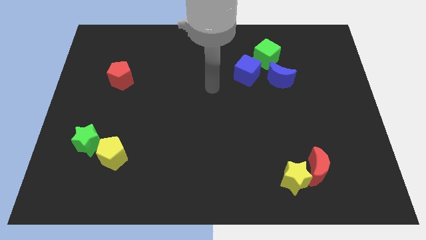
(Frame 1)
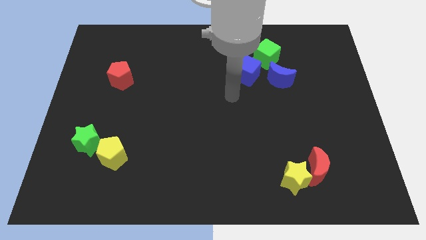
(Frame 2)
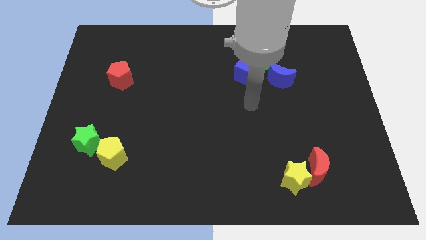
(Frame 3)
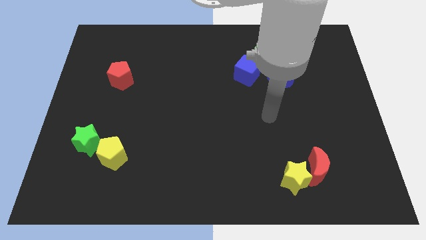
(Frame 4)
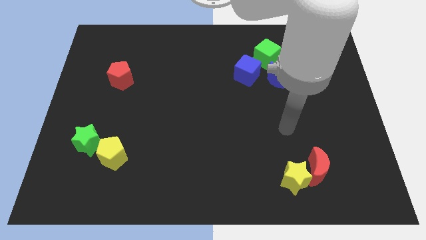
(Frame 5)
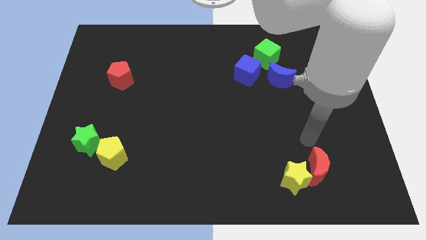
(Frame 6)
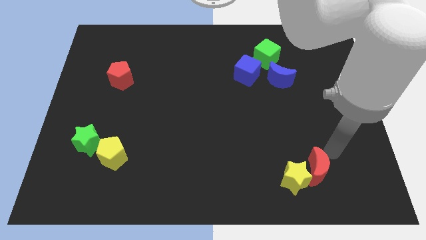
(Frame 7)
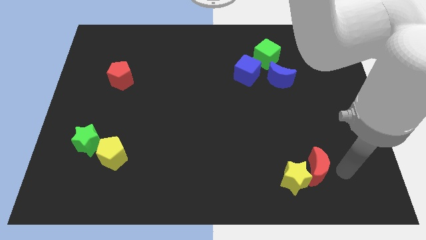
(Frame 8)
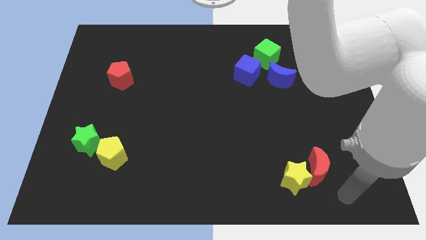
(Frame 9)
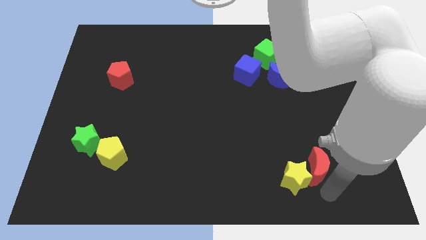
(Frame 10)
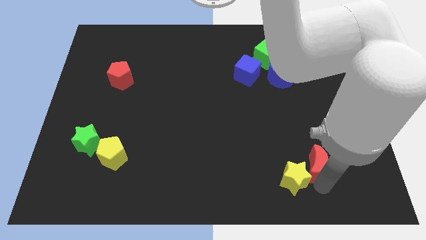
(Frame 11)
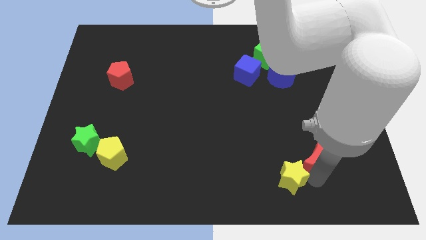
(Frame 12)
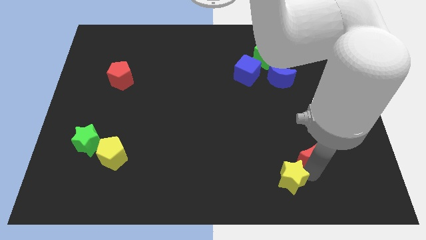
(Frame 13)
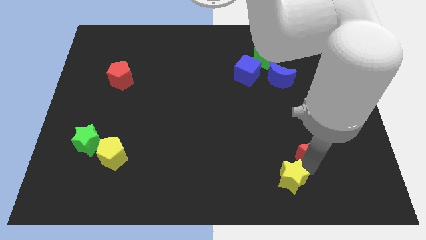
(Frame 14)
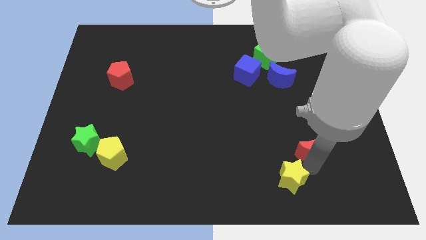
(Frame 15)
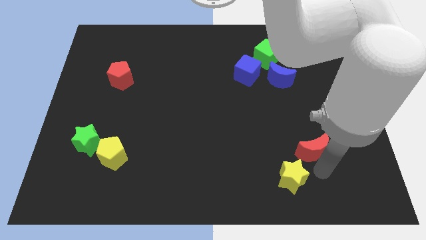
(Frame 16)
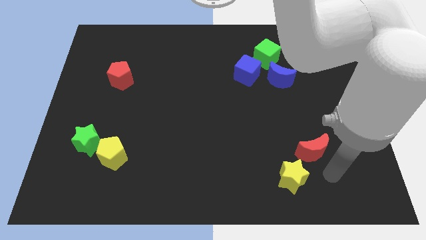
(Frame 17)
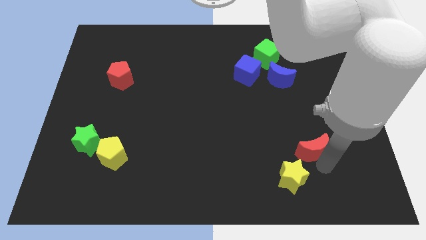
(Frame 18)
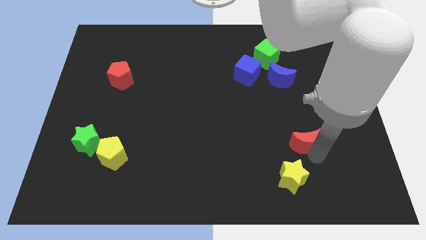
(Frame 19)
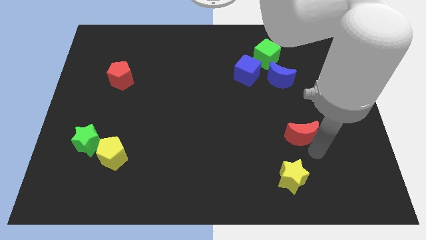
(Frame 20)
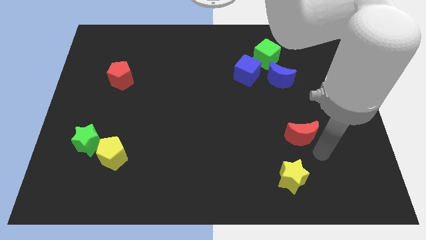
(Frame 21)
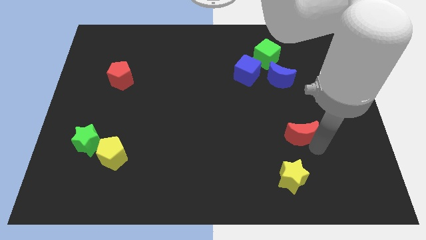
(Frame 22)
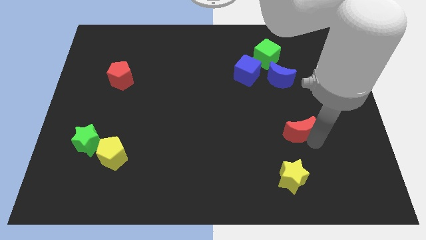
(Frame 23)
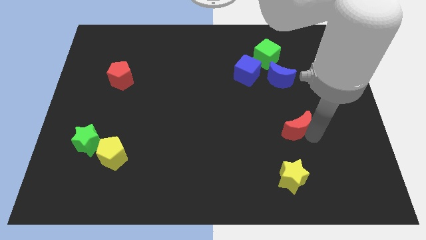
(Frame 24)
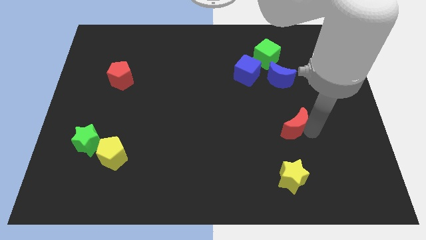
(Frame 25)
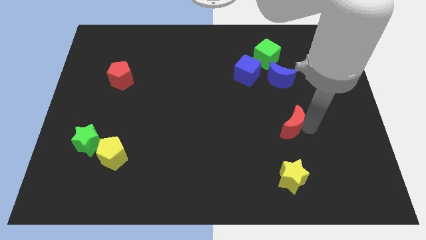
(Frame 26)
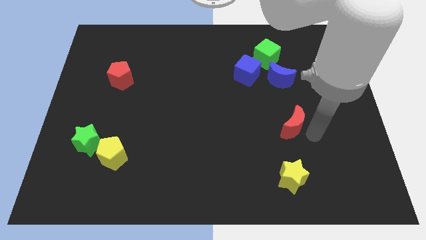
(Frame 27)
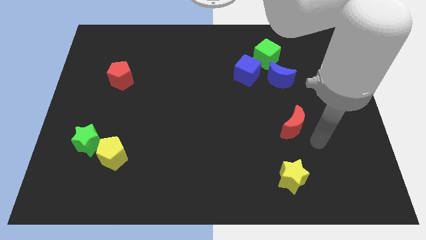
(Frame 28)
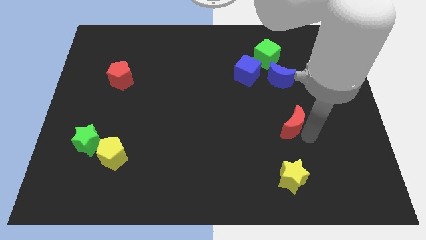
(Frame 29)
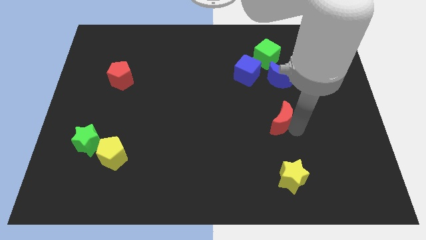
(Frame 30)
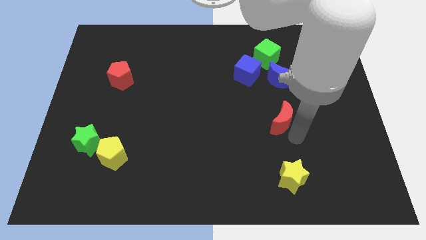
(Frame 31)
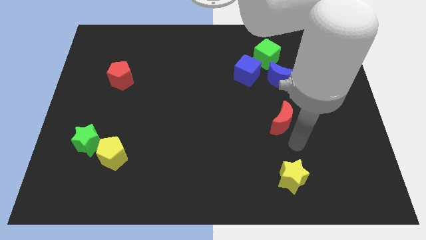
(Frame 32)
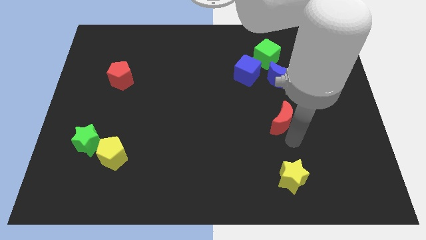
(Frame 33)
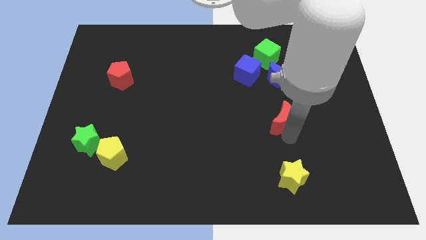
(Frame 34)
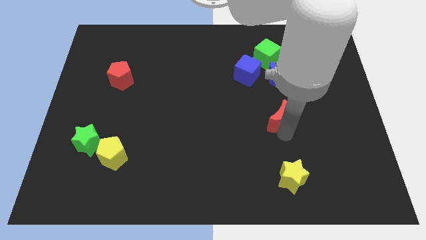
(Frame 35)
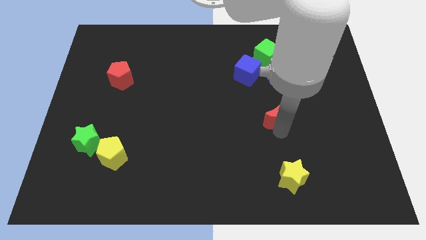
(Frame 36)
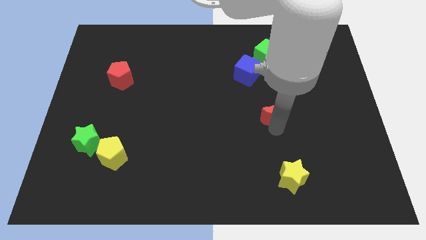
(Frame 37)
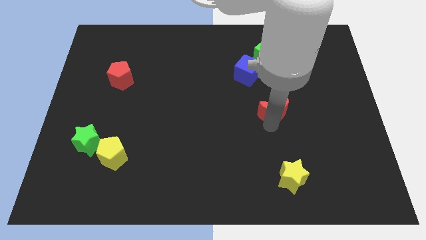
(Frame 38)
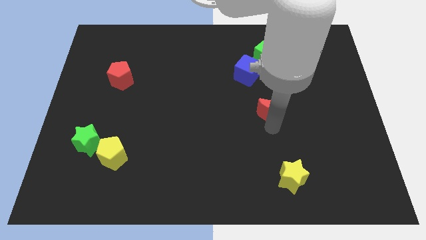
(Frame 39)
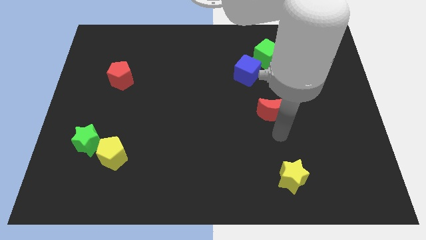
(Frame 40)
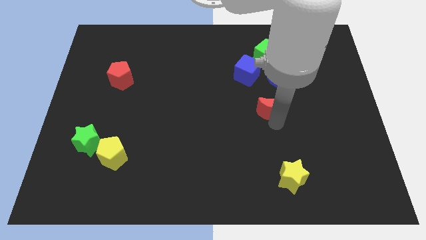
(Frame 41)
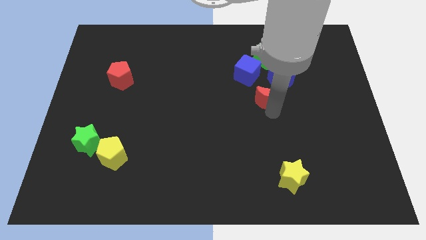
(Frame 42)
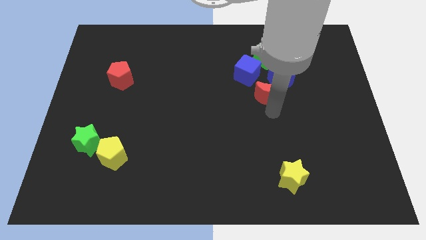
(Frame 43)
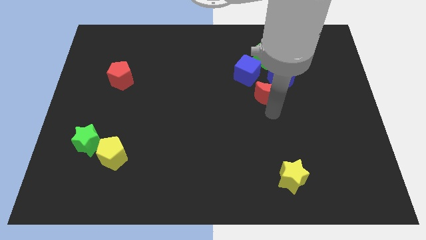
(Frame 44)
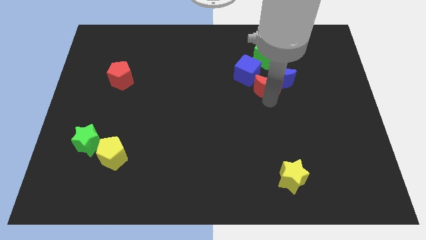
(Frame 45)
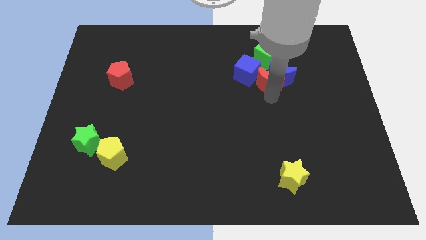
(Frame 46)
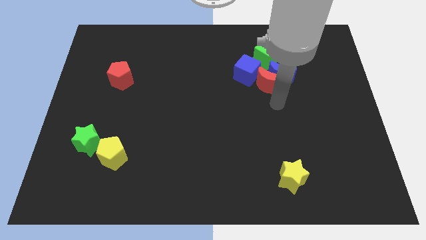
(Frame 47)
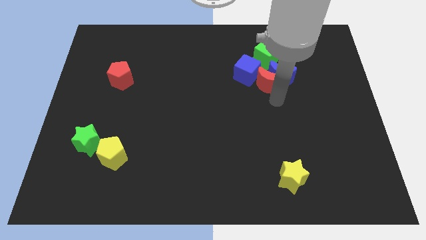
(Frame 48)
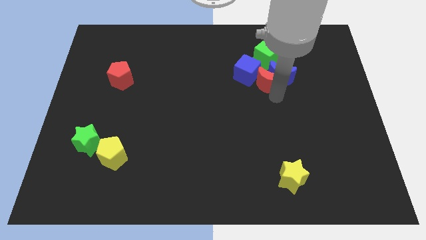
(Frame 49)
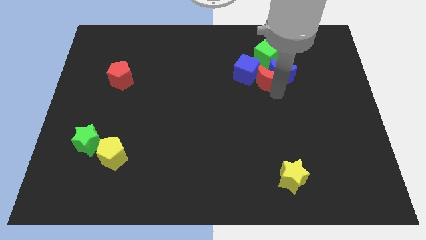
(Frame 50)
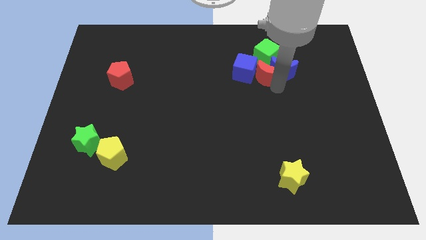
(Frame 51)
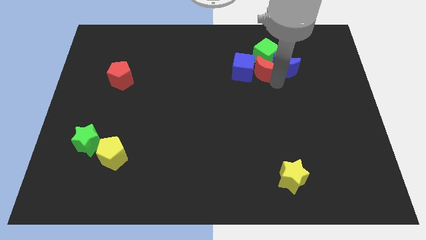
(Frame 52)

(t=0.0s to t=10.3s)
slide the red moon towards the green cube

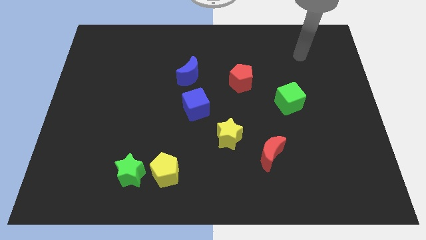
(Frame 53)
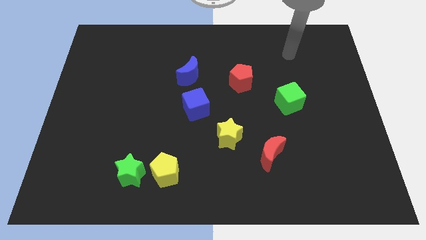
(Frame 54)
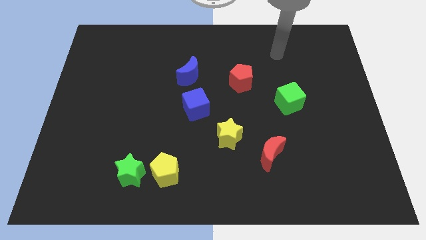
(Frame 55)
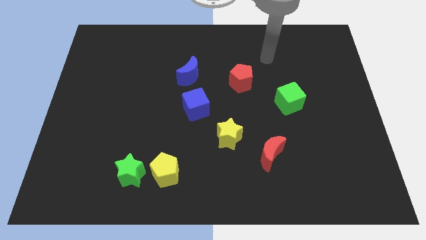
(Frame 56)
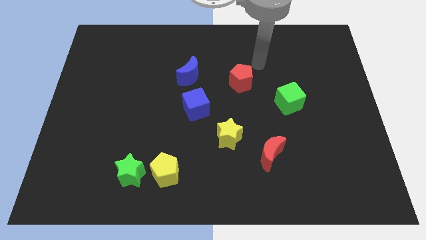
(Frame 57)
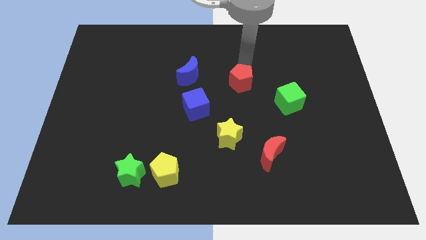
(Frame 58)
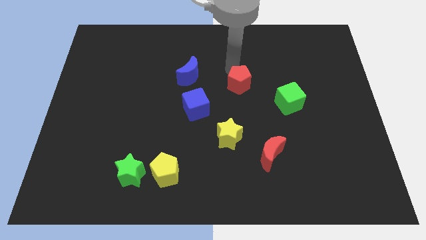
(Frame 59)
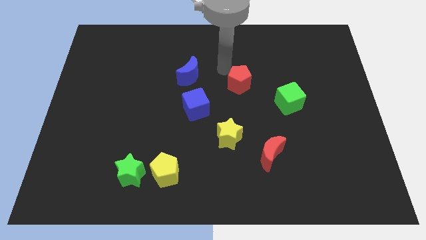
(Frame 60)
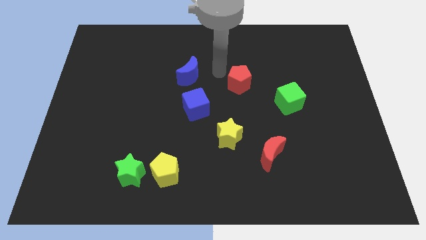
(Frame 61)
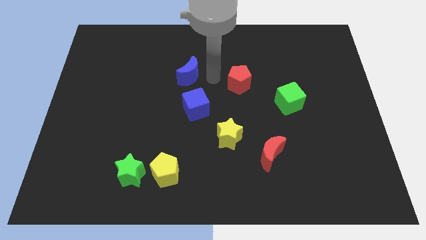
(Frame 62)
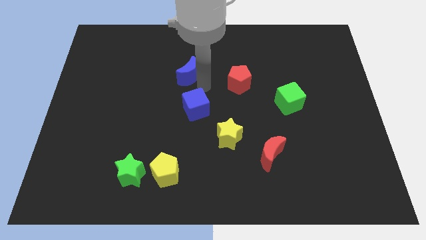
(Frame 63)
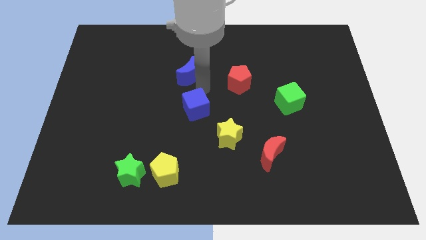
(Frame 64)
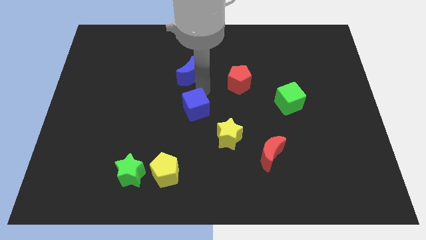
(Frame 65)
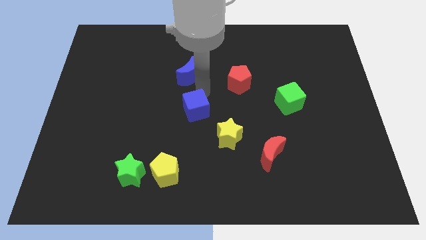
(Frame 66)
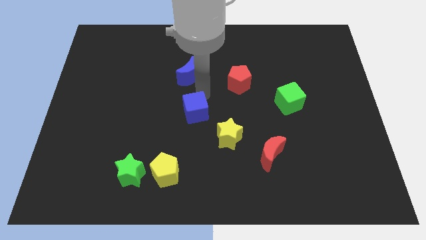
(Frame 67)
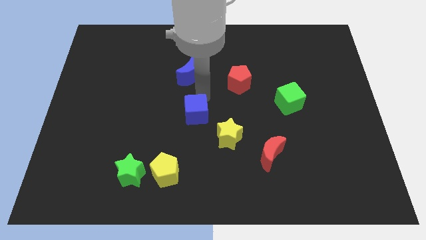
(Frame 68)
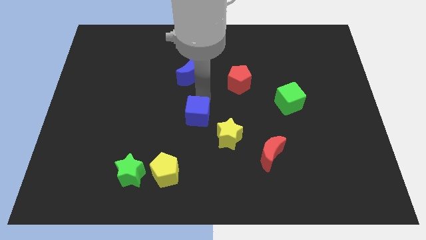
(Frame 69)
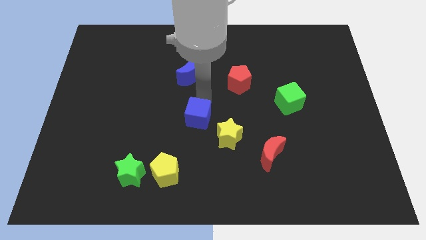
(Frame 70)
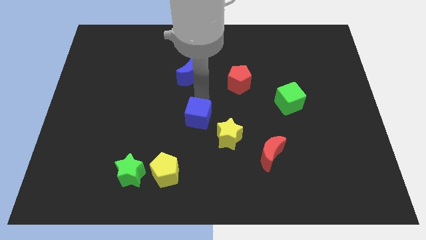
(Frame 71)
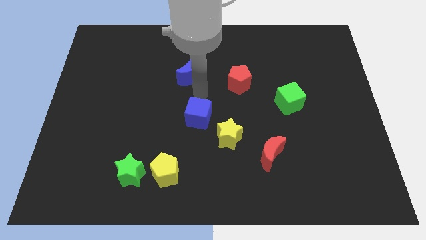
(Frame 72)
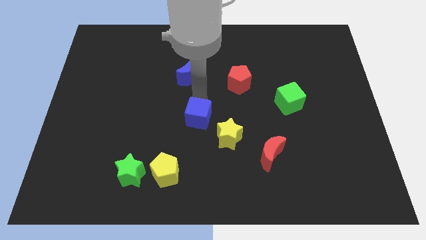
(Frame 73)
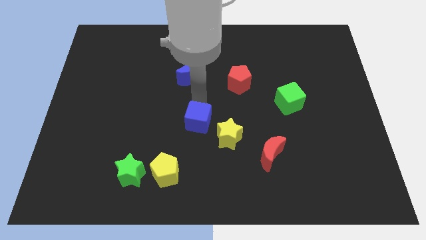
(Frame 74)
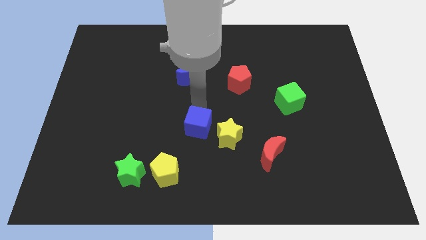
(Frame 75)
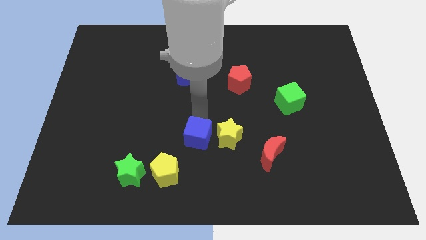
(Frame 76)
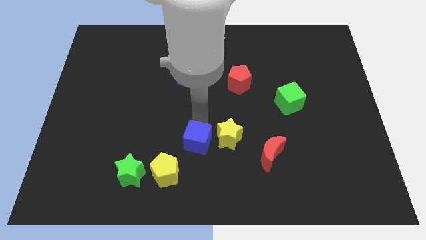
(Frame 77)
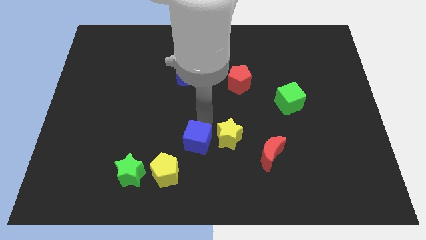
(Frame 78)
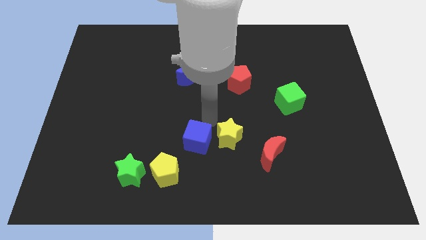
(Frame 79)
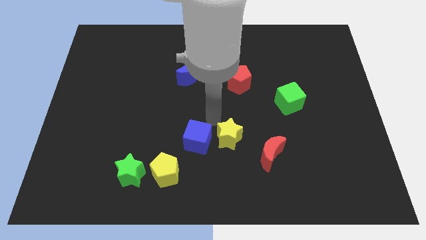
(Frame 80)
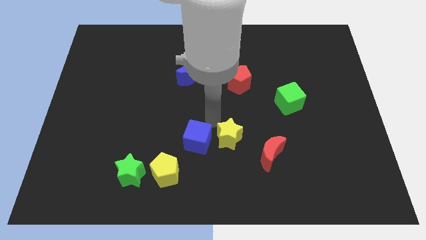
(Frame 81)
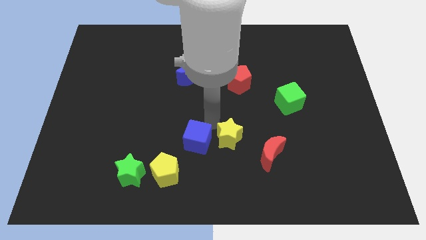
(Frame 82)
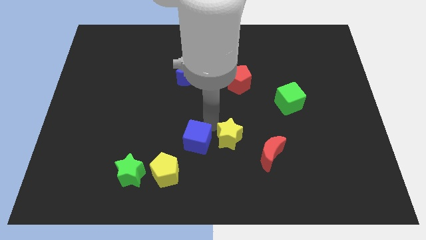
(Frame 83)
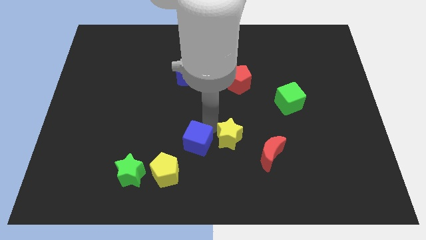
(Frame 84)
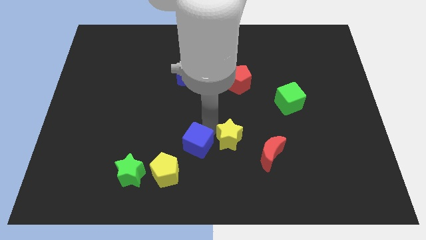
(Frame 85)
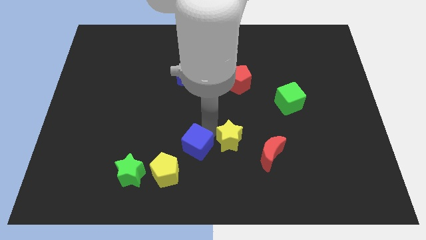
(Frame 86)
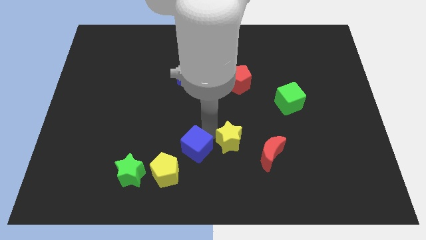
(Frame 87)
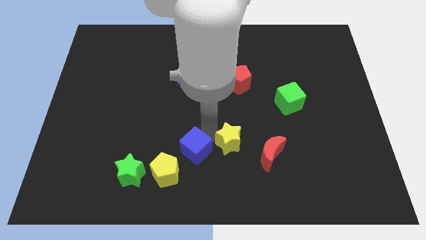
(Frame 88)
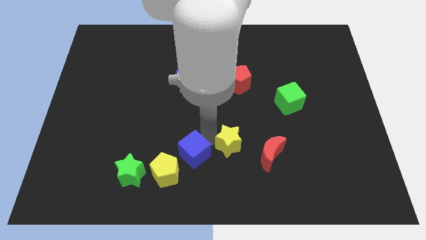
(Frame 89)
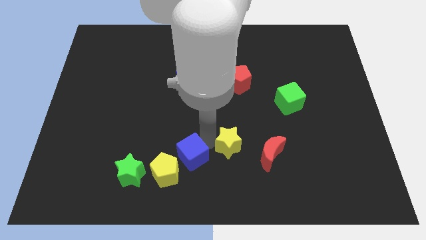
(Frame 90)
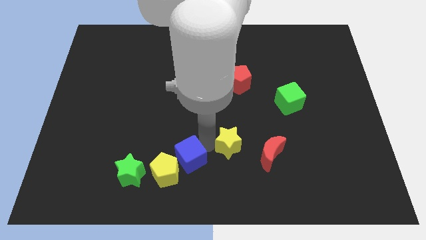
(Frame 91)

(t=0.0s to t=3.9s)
push the blue cube next to the yellow pentagon
